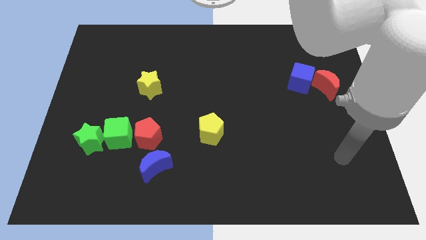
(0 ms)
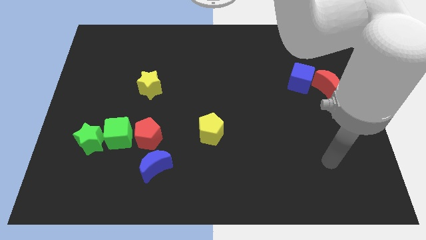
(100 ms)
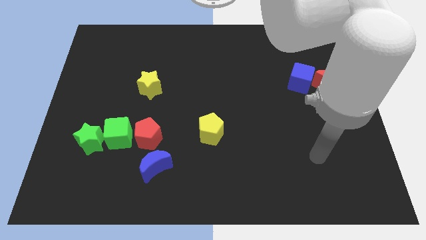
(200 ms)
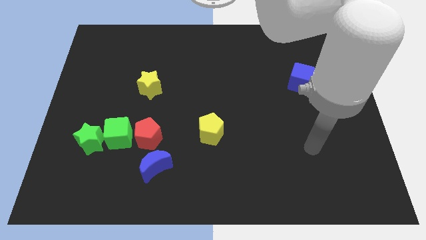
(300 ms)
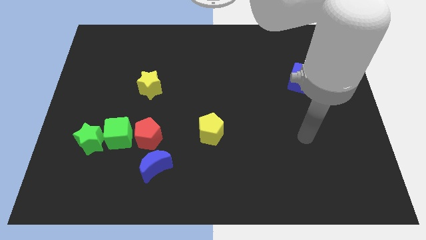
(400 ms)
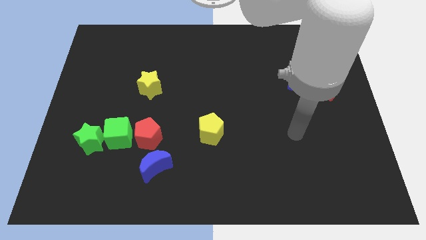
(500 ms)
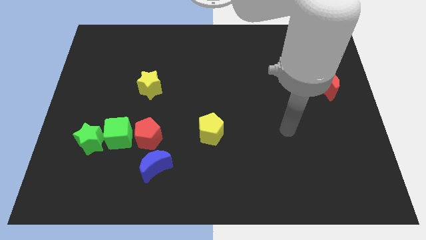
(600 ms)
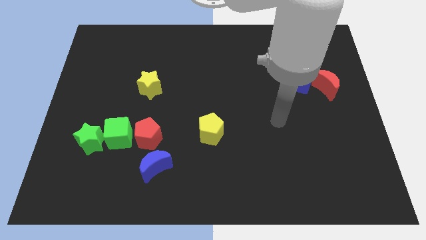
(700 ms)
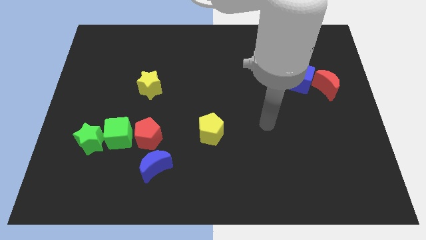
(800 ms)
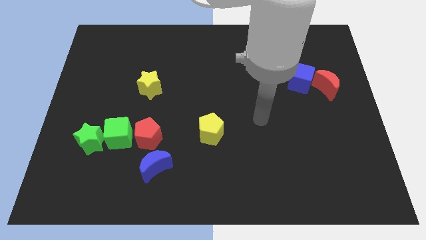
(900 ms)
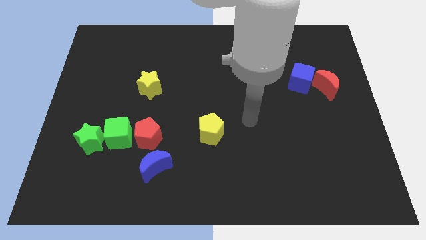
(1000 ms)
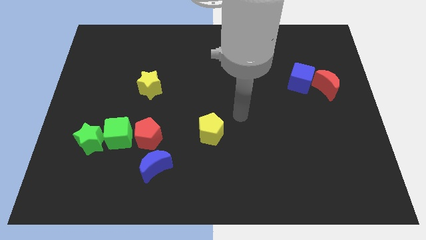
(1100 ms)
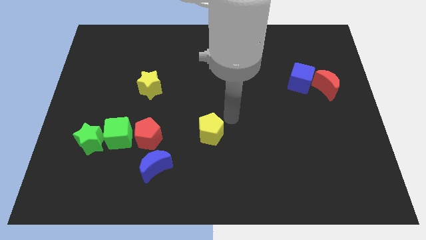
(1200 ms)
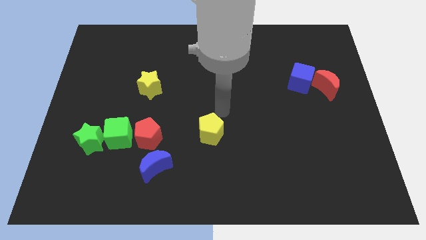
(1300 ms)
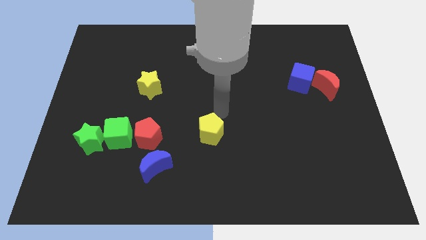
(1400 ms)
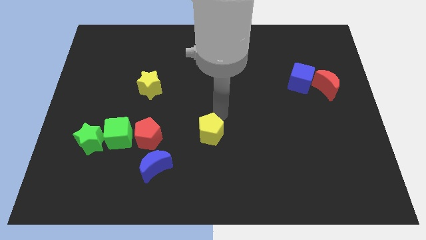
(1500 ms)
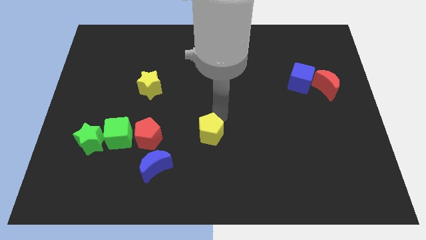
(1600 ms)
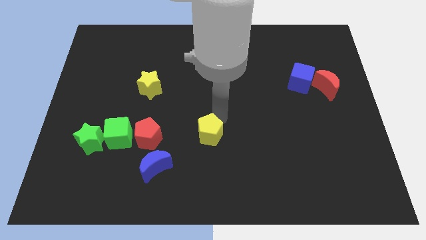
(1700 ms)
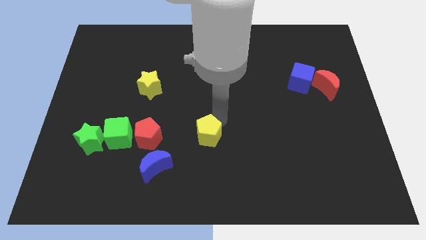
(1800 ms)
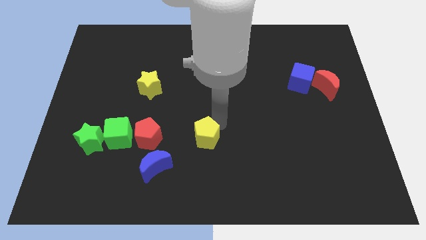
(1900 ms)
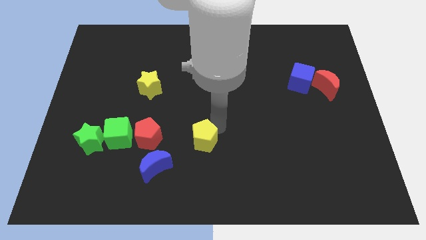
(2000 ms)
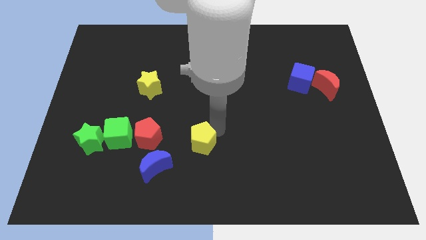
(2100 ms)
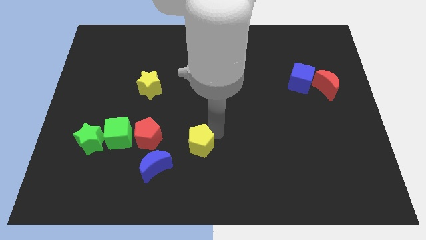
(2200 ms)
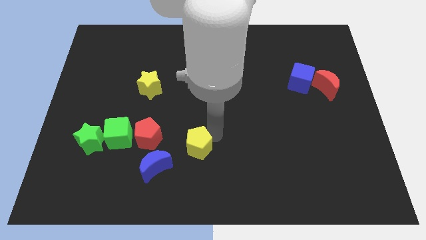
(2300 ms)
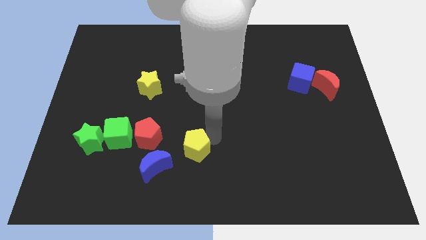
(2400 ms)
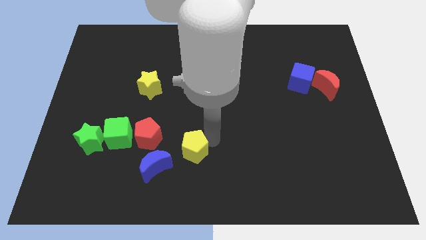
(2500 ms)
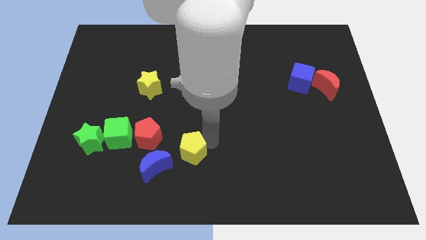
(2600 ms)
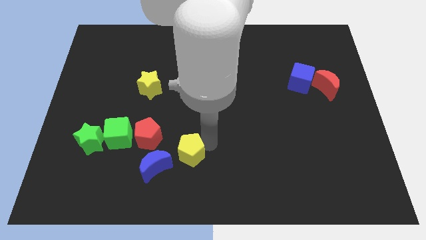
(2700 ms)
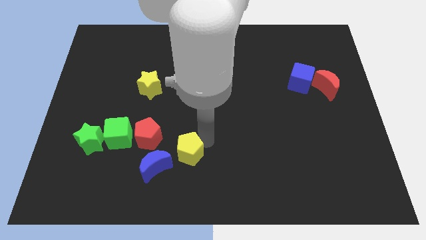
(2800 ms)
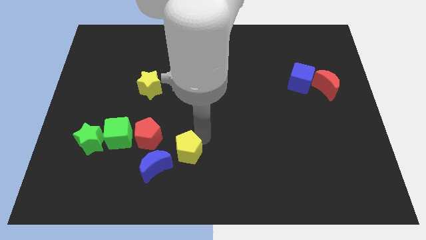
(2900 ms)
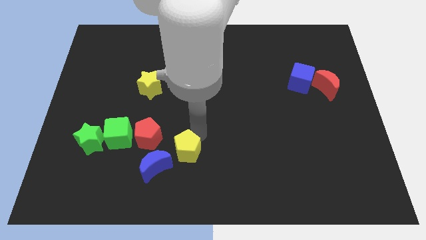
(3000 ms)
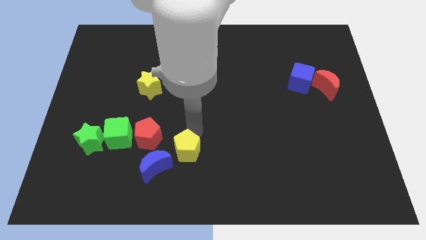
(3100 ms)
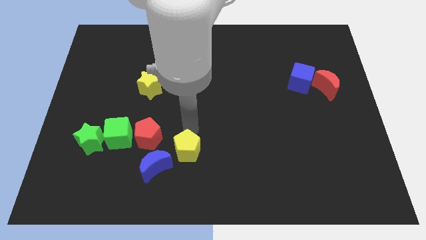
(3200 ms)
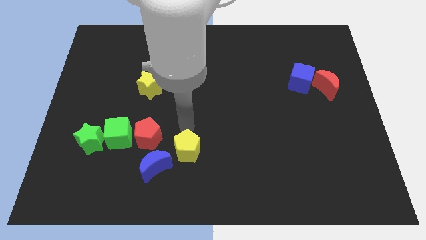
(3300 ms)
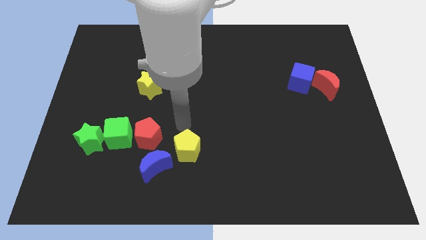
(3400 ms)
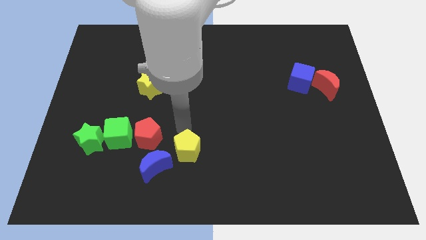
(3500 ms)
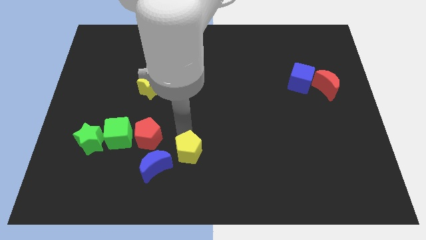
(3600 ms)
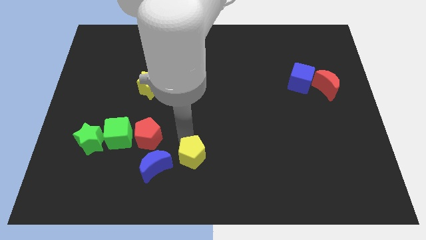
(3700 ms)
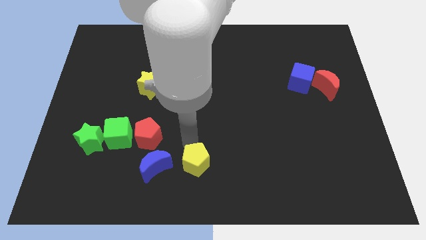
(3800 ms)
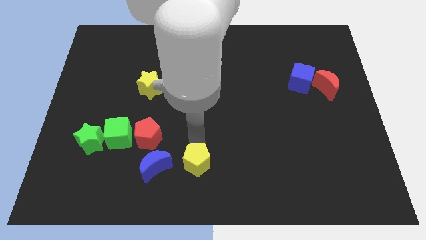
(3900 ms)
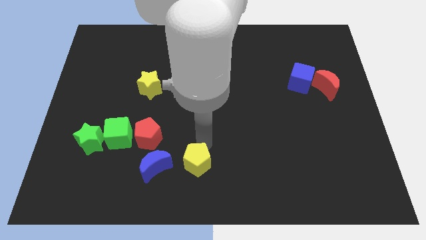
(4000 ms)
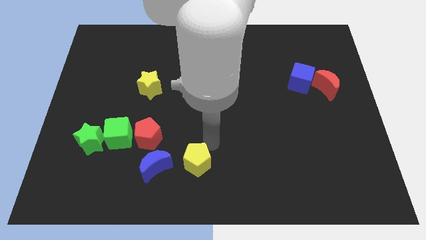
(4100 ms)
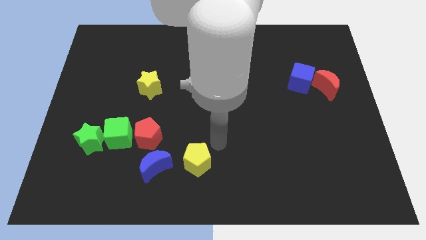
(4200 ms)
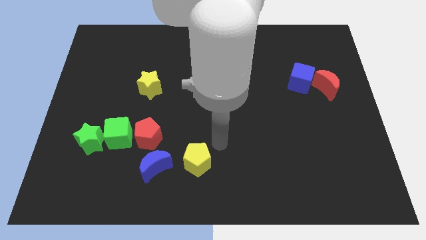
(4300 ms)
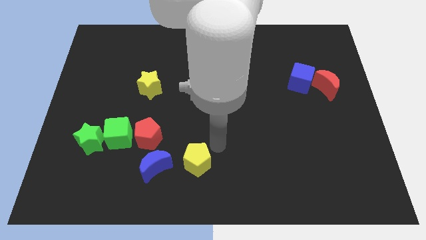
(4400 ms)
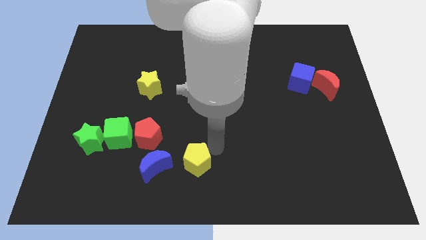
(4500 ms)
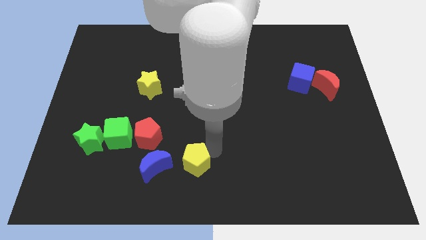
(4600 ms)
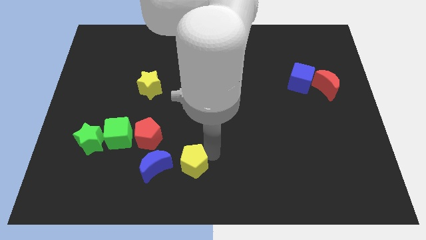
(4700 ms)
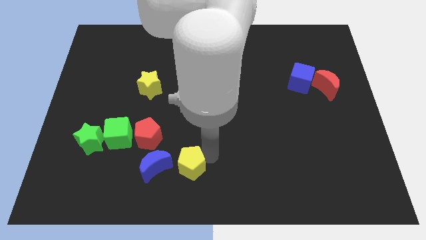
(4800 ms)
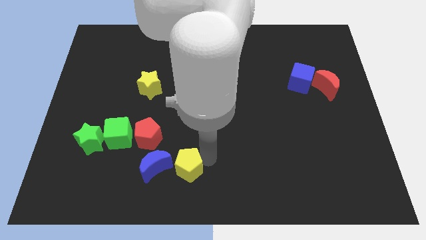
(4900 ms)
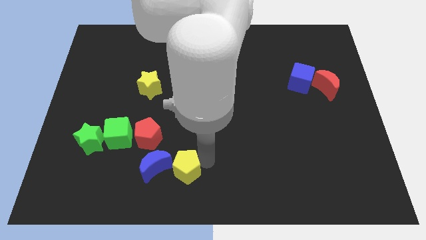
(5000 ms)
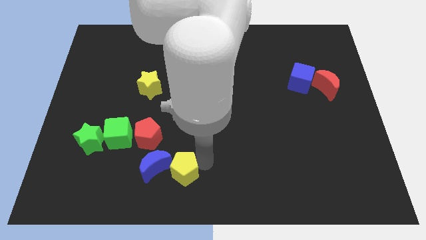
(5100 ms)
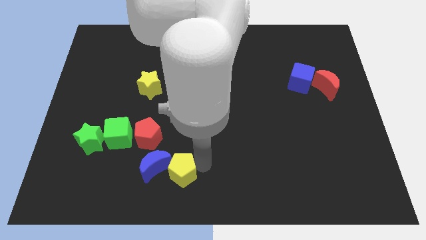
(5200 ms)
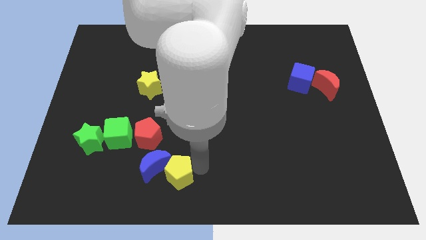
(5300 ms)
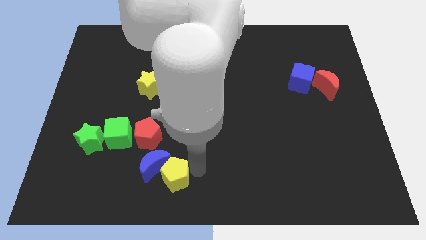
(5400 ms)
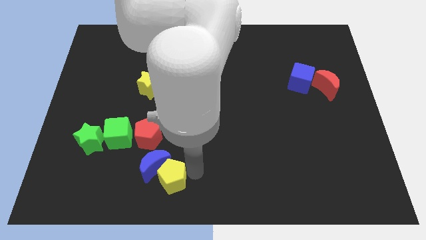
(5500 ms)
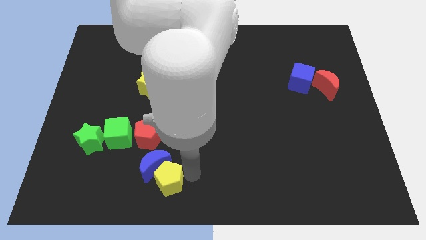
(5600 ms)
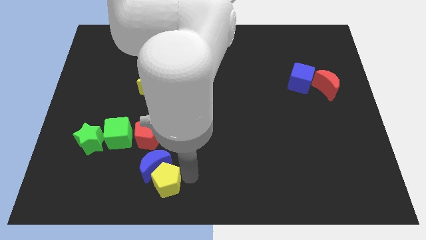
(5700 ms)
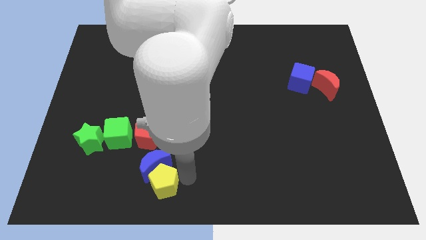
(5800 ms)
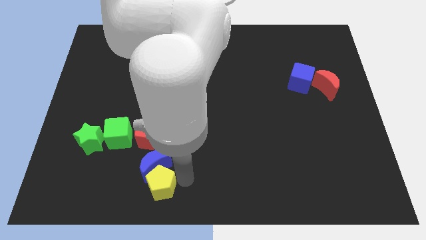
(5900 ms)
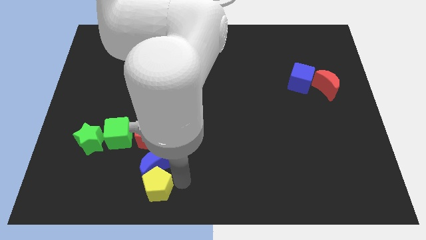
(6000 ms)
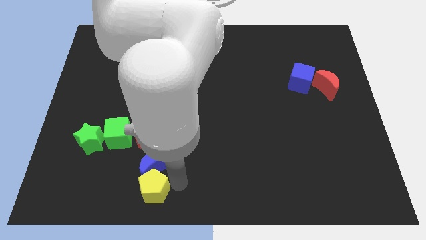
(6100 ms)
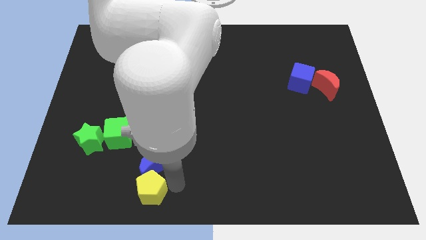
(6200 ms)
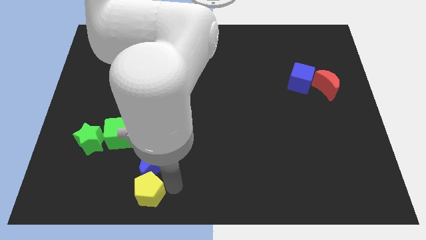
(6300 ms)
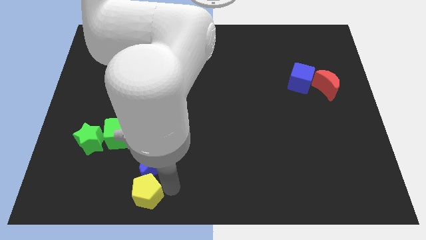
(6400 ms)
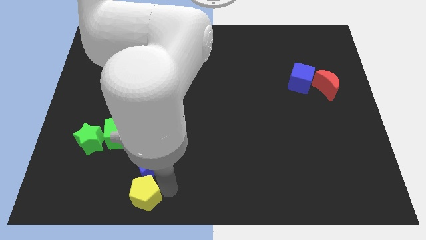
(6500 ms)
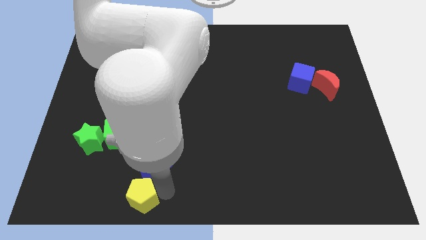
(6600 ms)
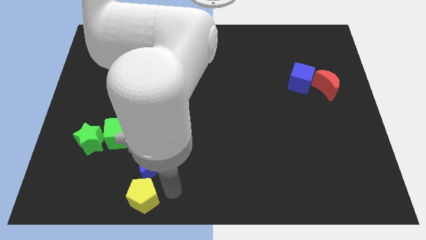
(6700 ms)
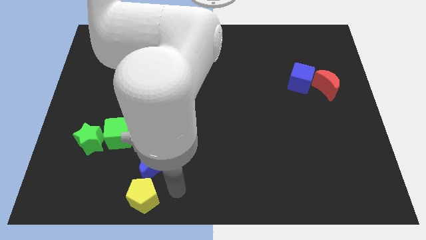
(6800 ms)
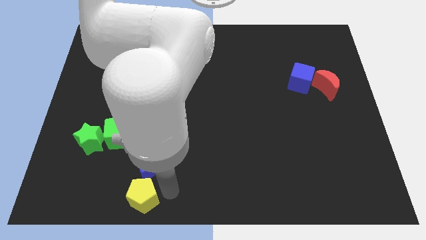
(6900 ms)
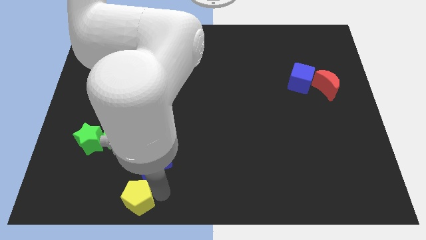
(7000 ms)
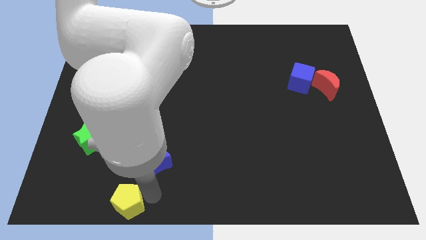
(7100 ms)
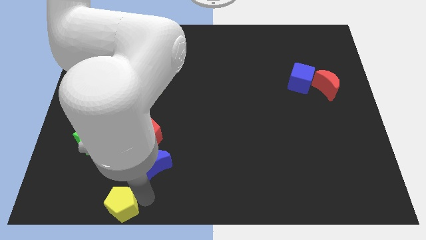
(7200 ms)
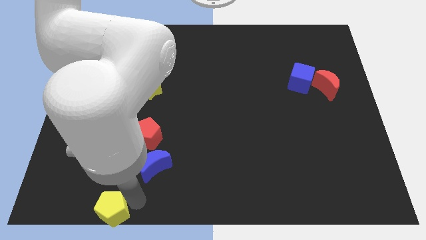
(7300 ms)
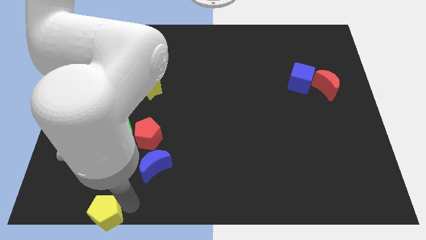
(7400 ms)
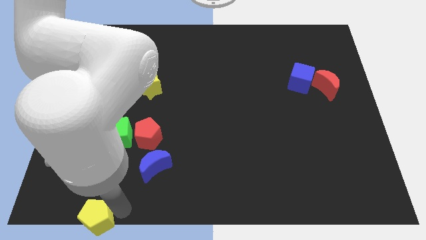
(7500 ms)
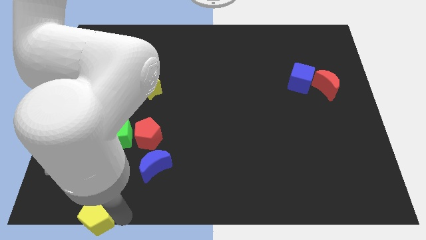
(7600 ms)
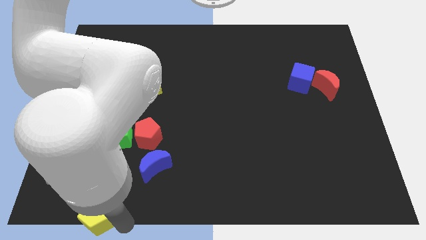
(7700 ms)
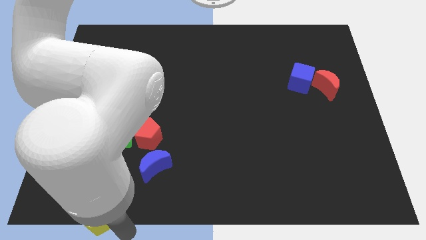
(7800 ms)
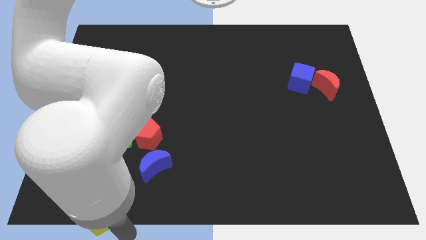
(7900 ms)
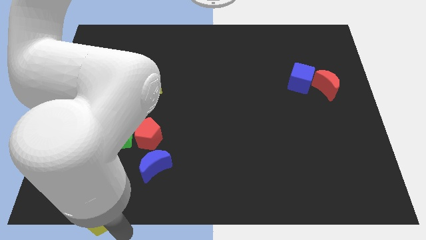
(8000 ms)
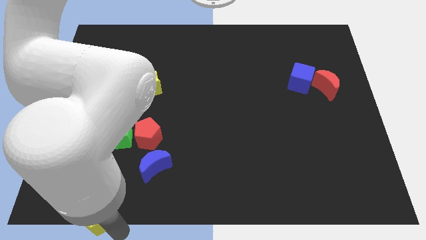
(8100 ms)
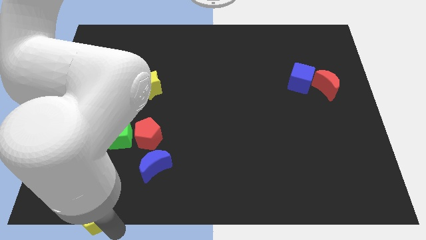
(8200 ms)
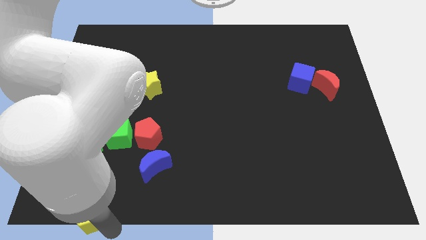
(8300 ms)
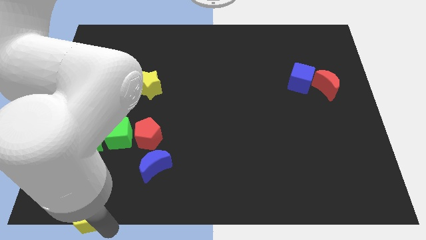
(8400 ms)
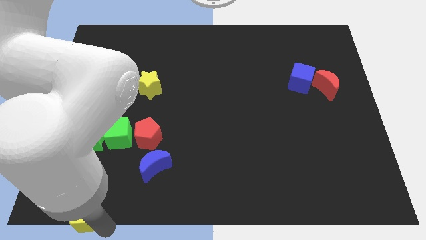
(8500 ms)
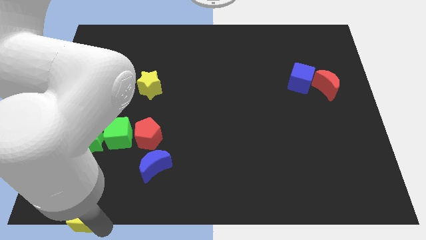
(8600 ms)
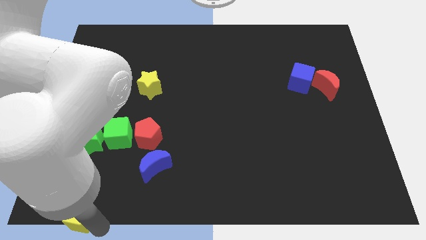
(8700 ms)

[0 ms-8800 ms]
move the yellow pentagon to the bottom left corner
